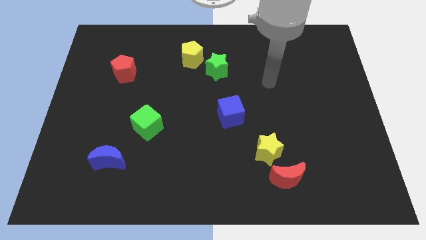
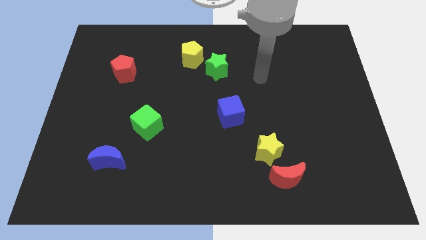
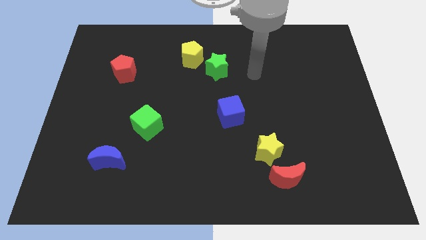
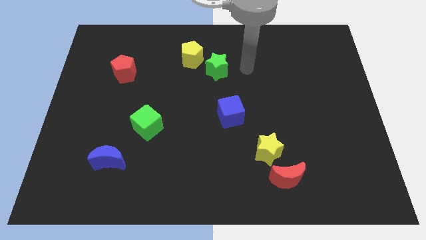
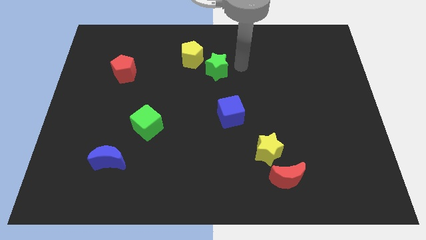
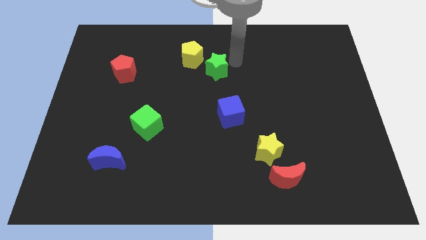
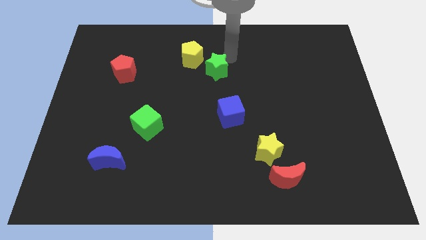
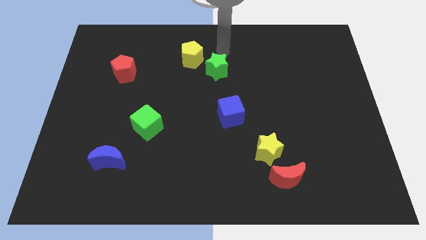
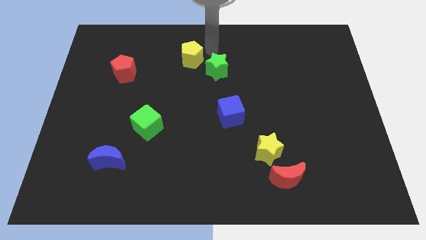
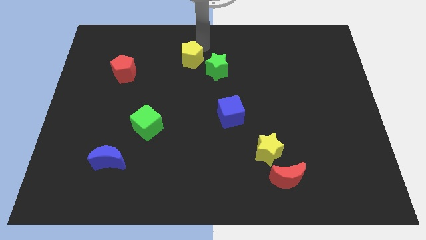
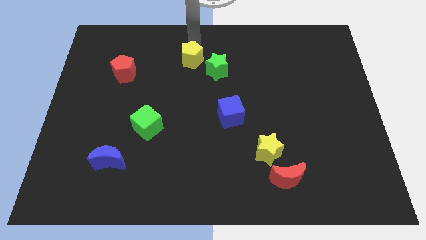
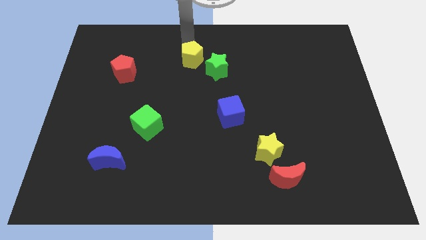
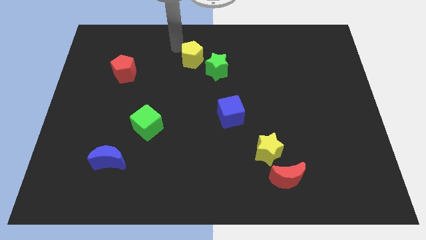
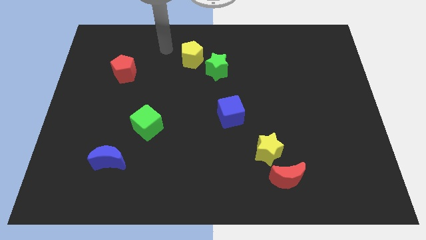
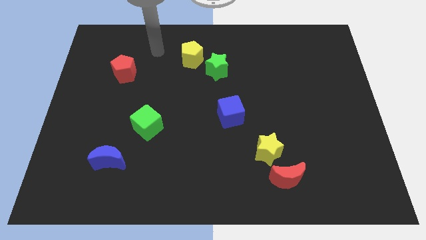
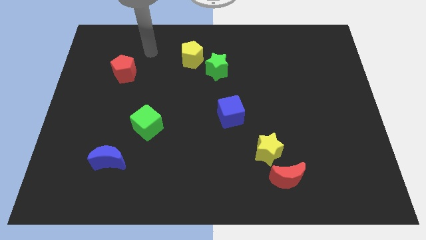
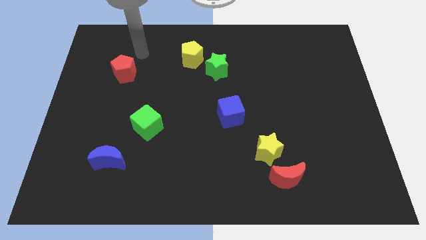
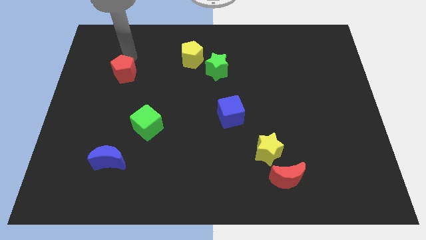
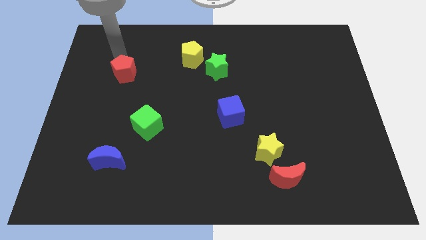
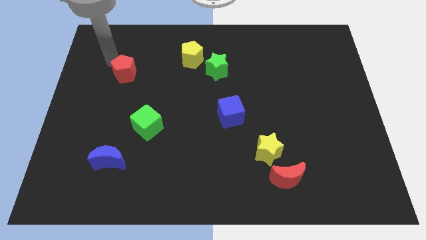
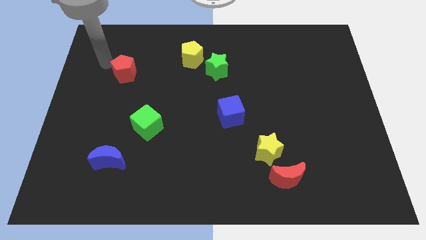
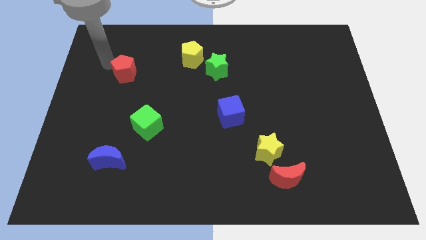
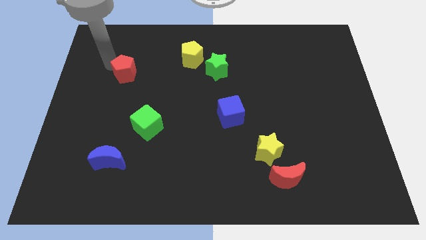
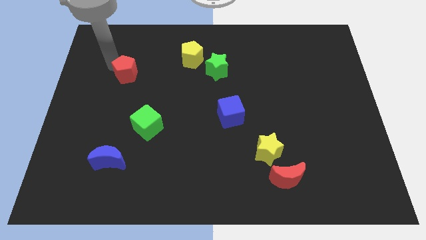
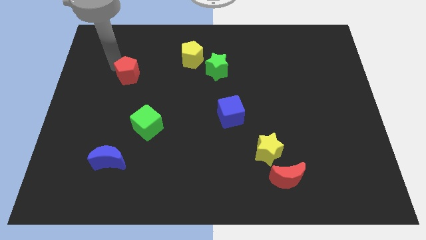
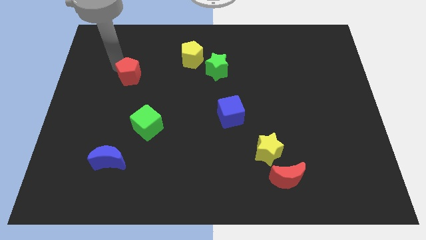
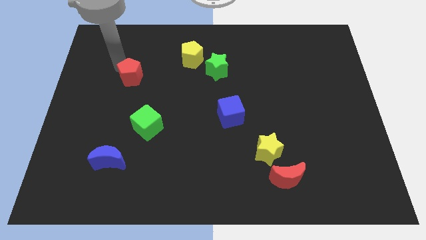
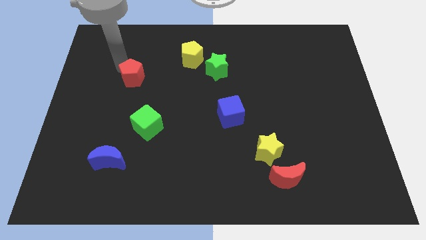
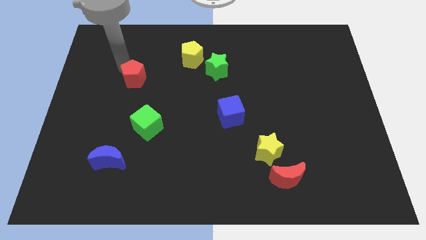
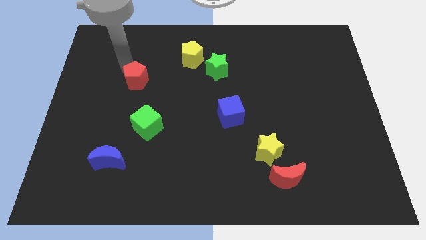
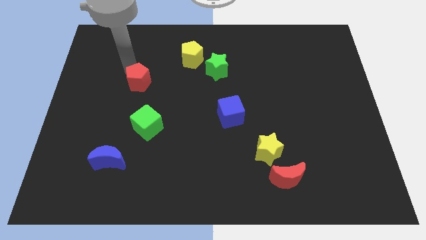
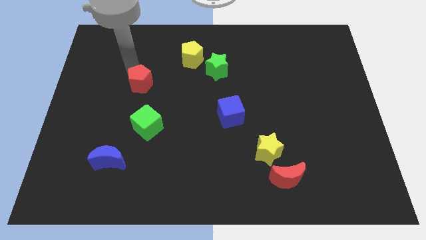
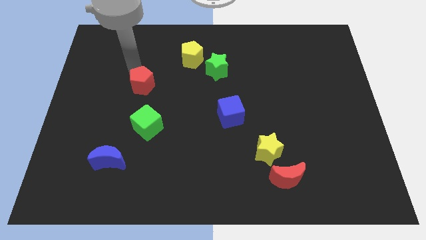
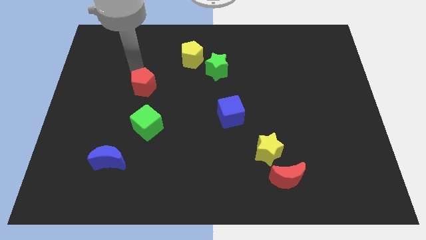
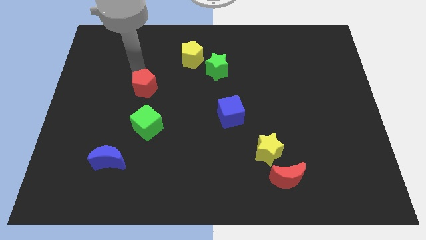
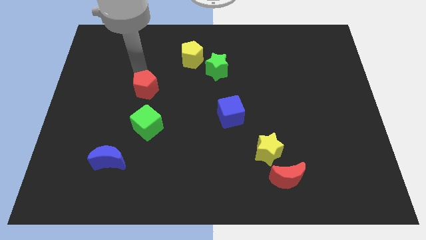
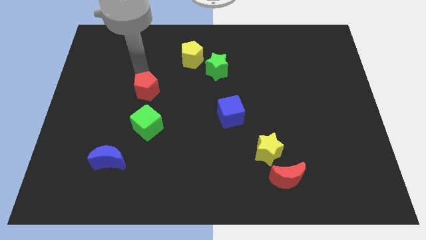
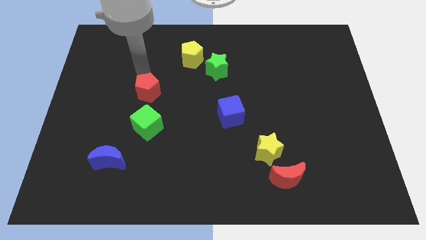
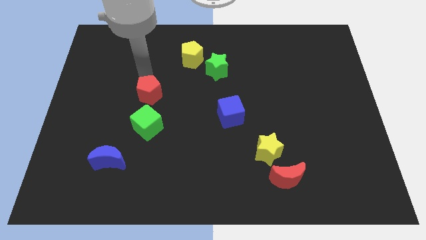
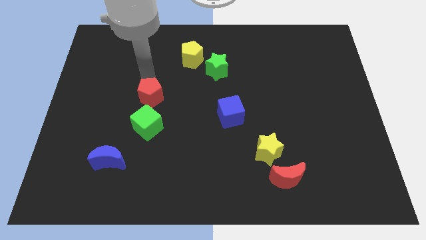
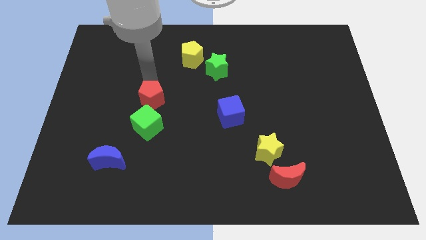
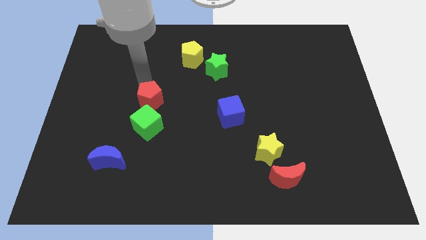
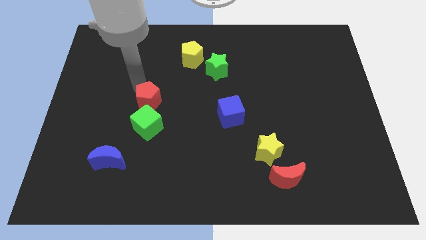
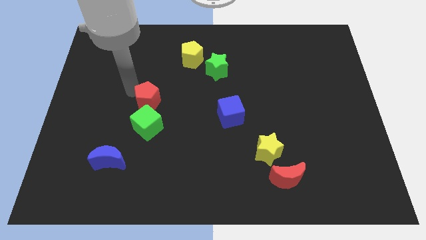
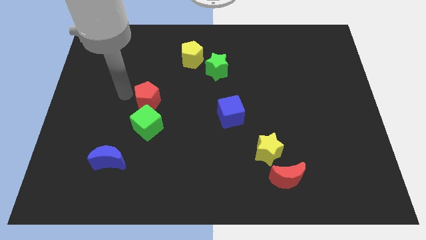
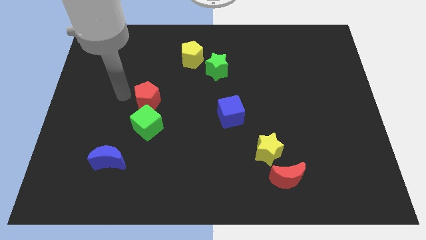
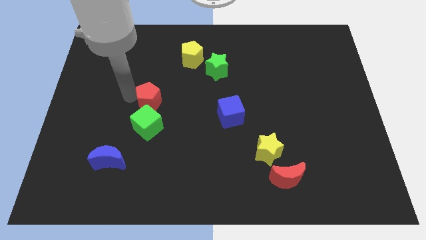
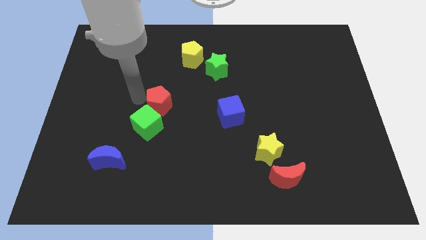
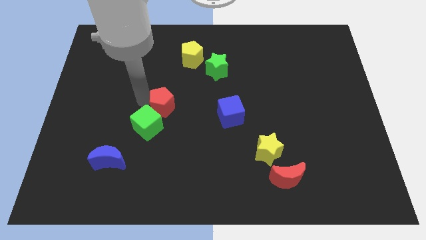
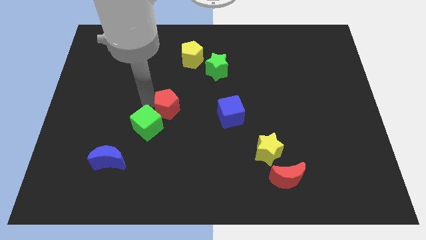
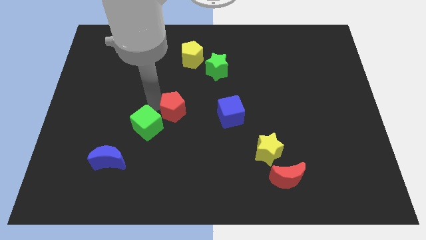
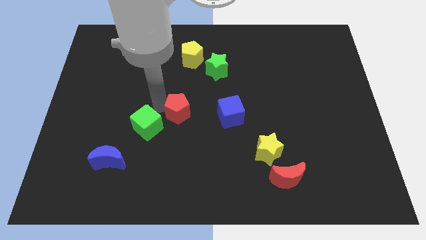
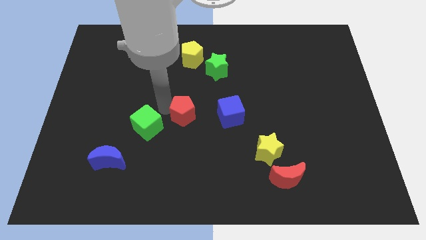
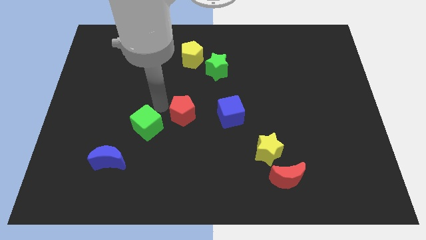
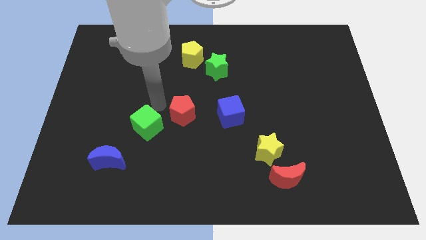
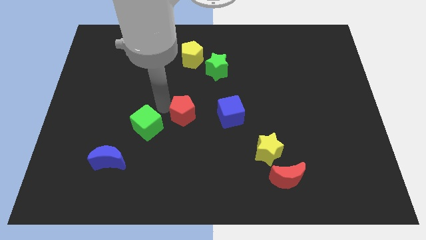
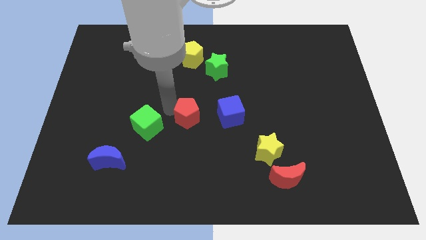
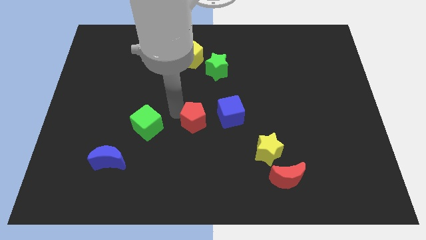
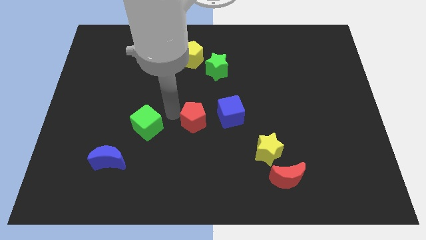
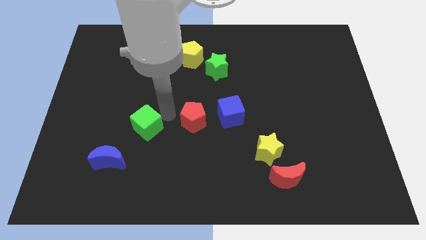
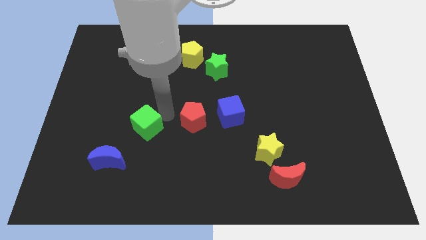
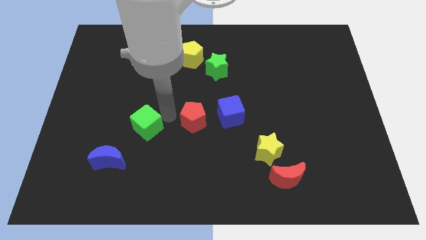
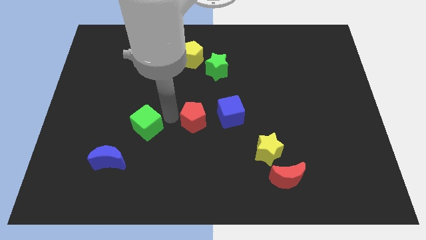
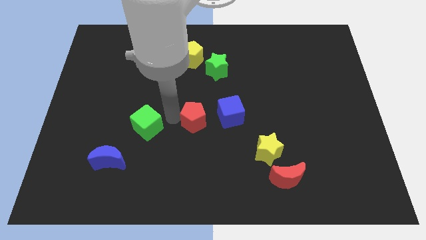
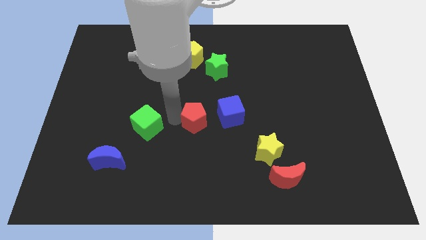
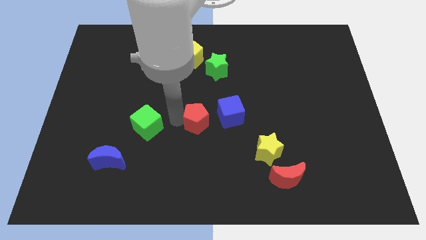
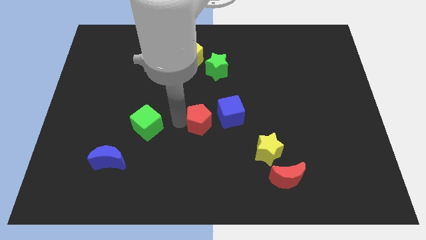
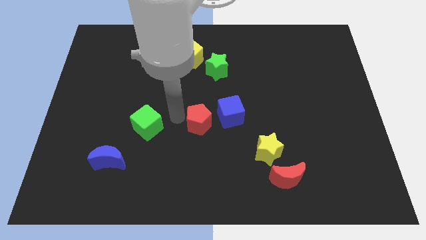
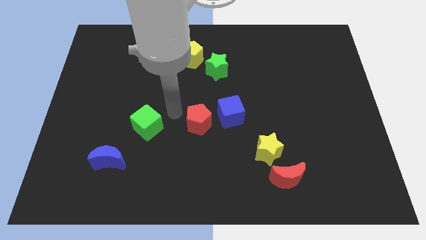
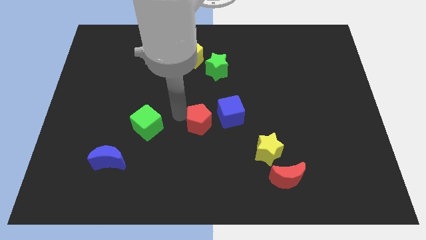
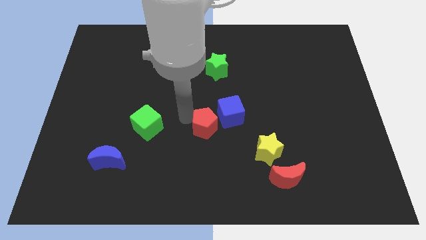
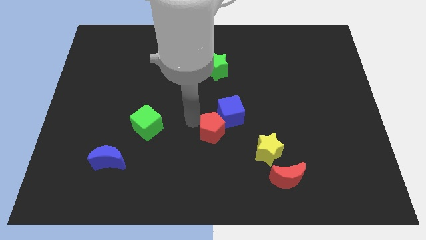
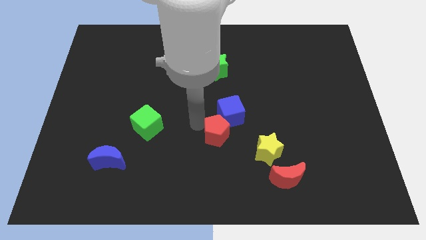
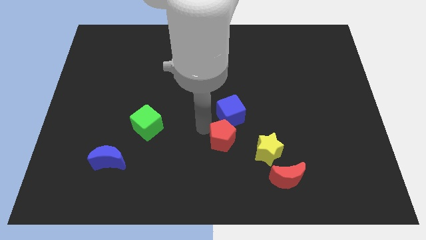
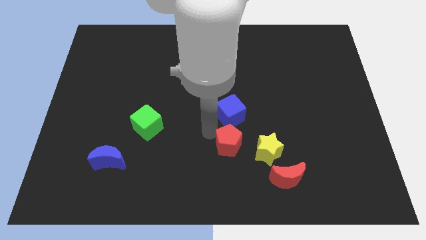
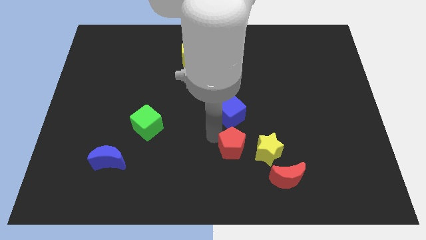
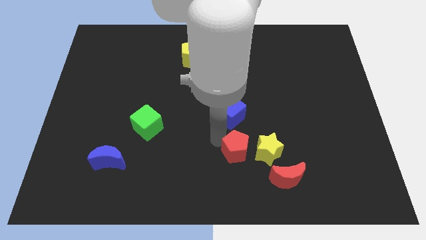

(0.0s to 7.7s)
slide the red pentagon to the top left side of the red moon
